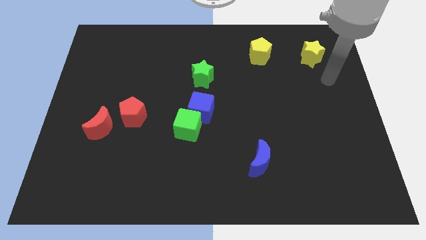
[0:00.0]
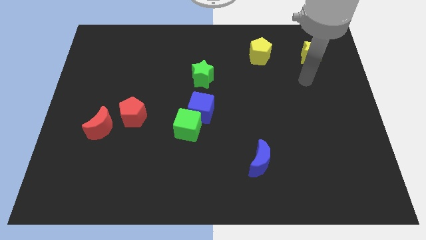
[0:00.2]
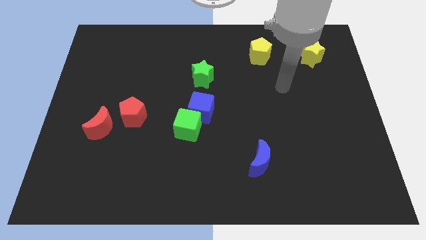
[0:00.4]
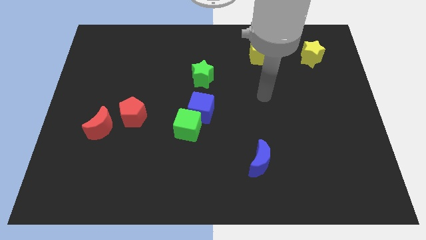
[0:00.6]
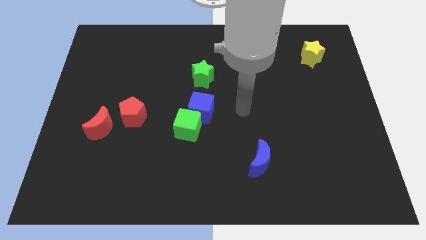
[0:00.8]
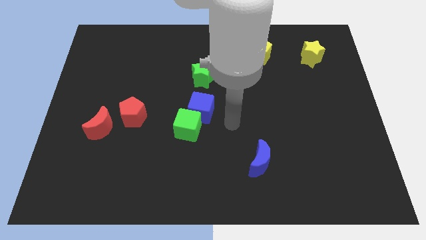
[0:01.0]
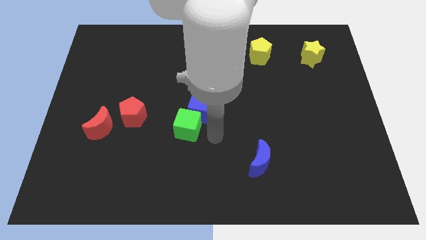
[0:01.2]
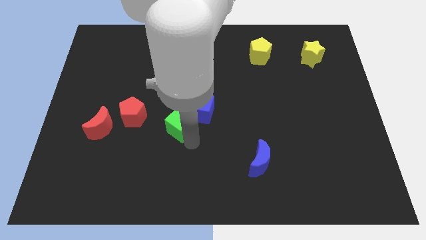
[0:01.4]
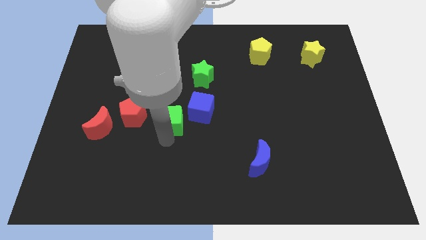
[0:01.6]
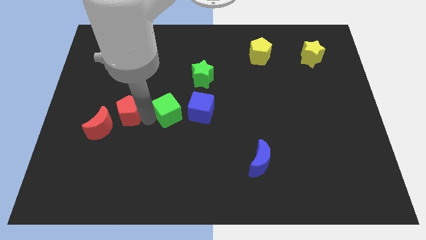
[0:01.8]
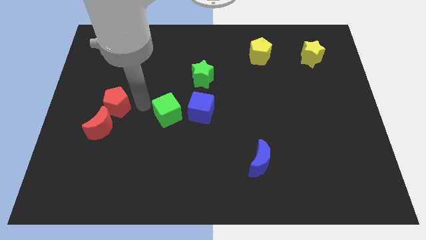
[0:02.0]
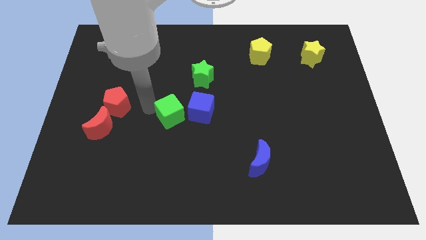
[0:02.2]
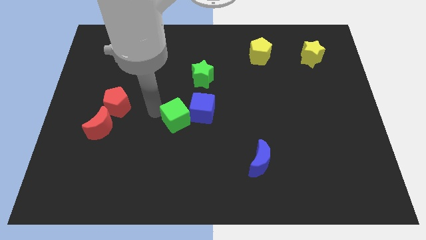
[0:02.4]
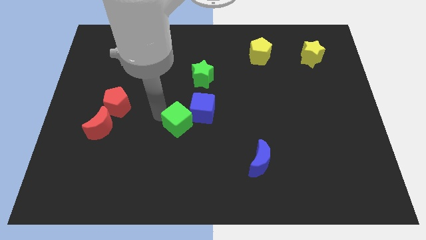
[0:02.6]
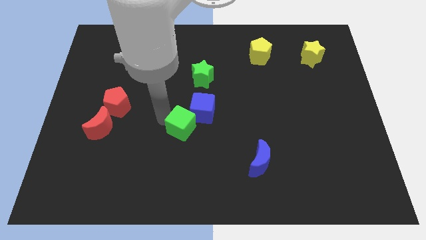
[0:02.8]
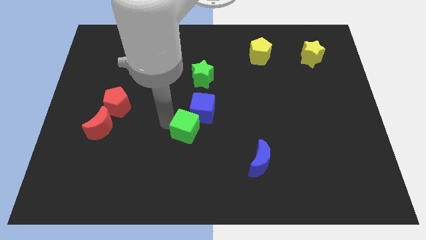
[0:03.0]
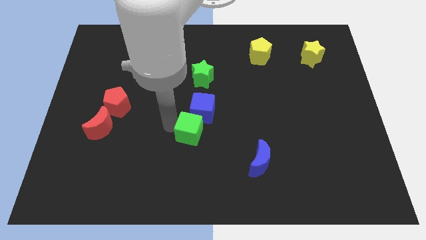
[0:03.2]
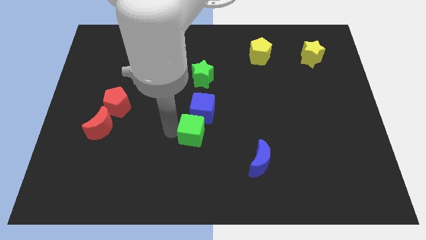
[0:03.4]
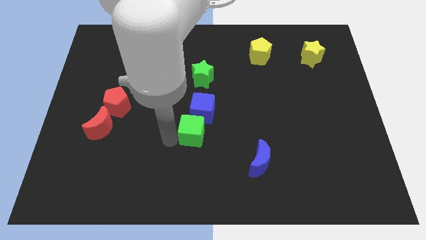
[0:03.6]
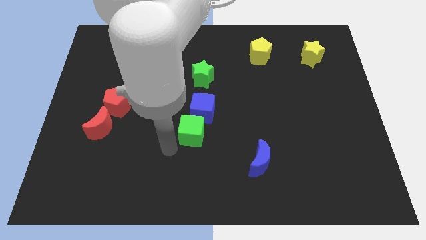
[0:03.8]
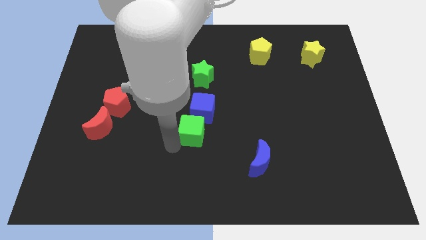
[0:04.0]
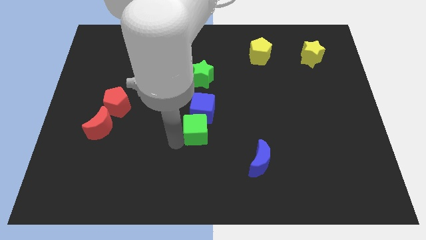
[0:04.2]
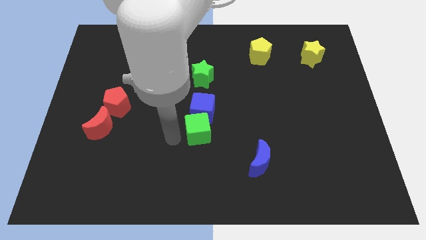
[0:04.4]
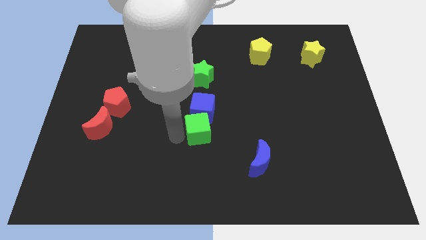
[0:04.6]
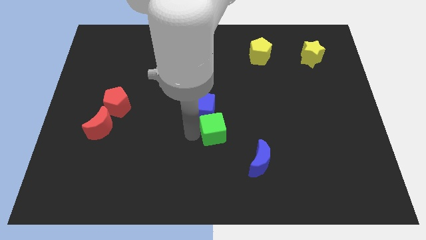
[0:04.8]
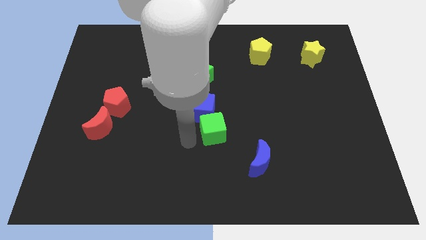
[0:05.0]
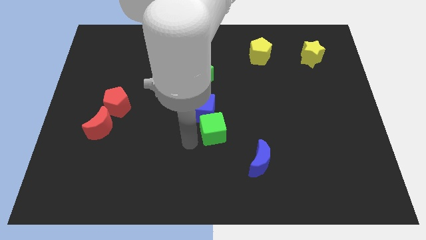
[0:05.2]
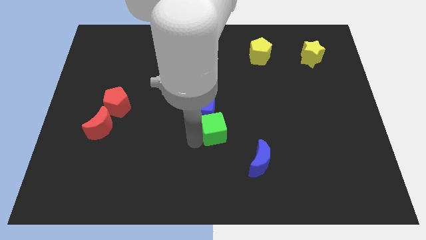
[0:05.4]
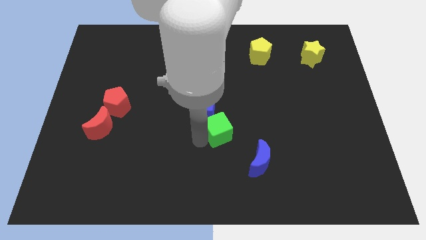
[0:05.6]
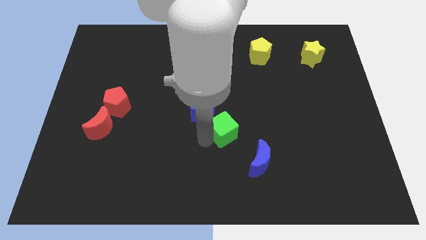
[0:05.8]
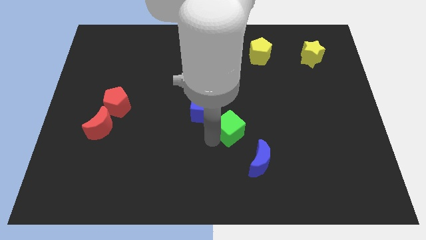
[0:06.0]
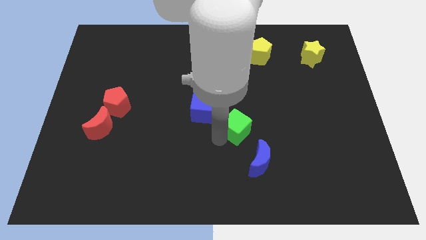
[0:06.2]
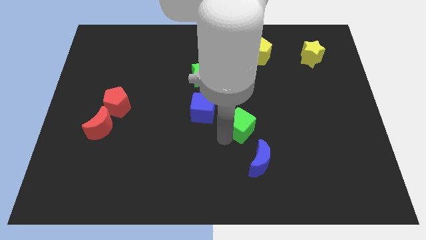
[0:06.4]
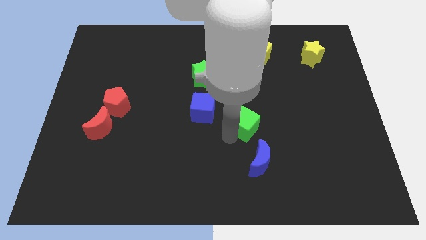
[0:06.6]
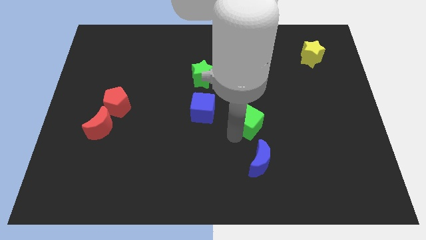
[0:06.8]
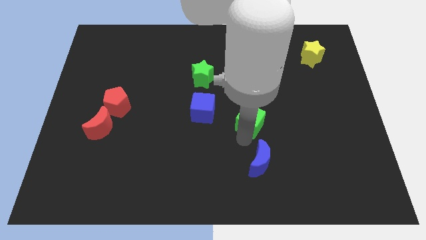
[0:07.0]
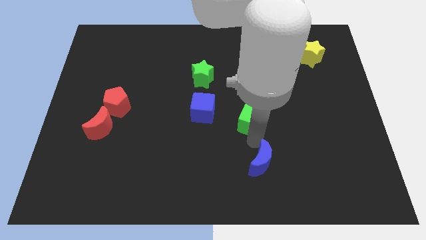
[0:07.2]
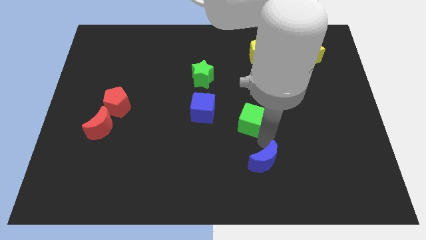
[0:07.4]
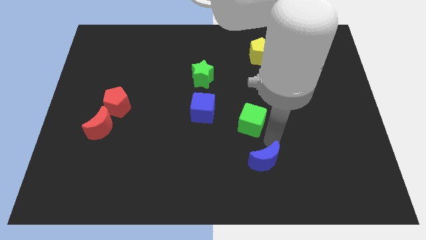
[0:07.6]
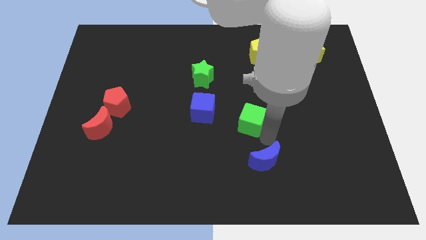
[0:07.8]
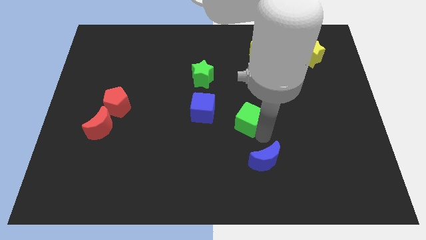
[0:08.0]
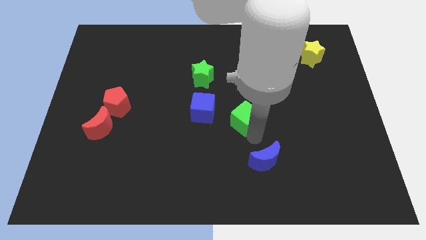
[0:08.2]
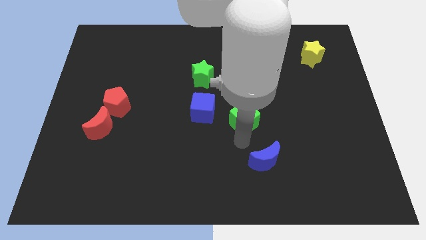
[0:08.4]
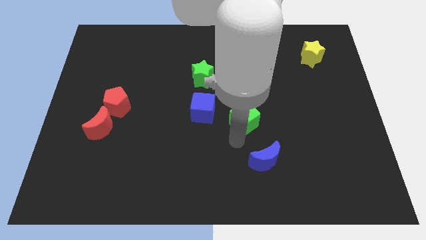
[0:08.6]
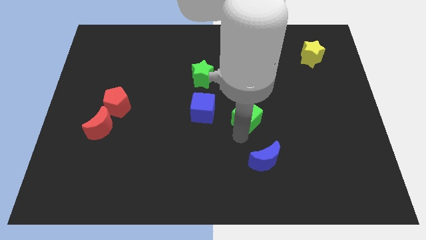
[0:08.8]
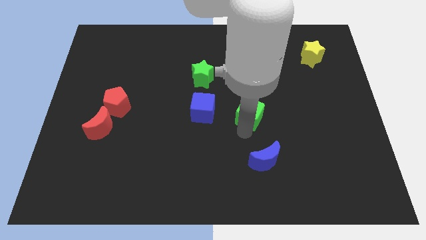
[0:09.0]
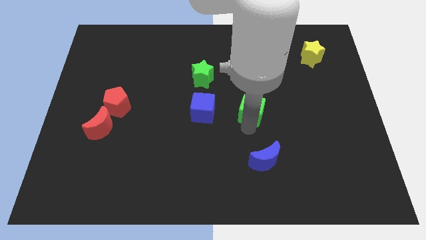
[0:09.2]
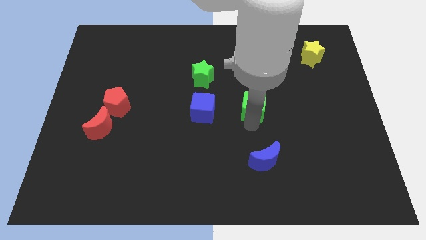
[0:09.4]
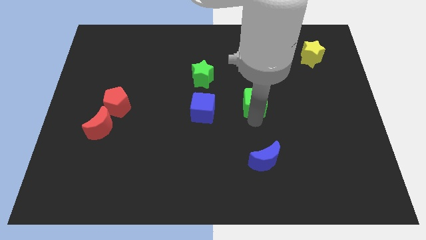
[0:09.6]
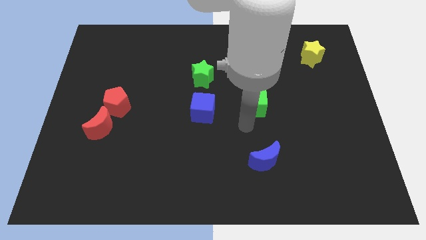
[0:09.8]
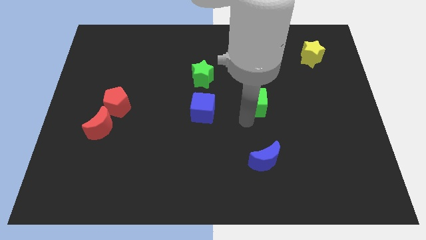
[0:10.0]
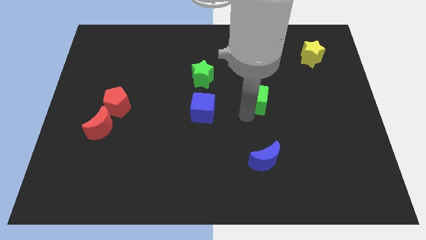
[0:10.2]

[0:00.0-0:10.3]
put the green cube to the bottom side of the yellow pentagon

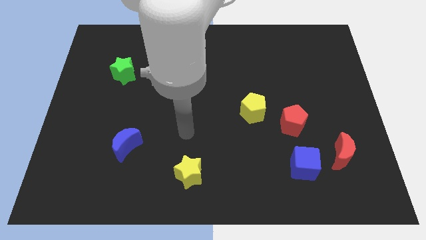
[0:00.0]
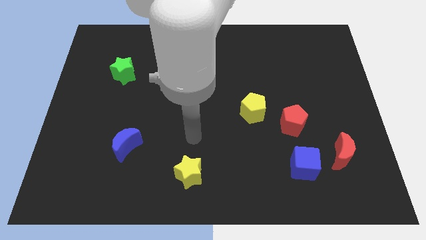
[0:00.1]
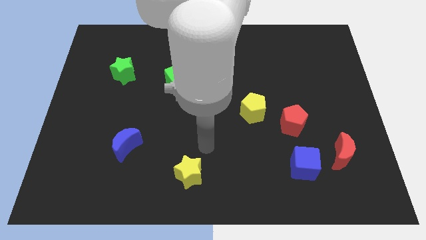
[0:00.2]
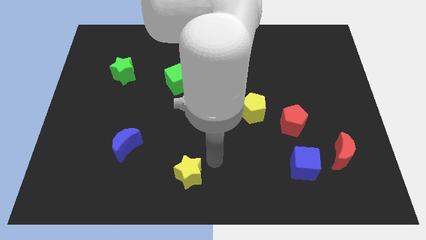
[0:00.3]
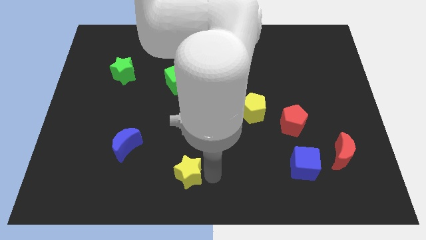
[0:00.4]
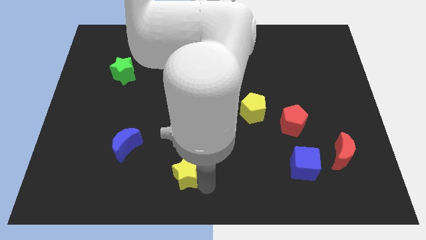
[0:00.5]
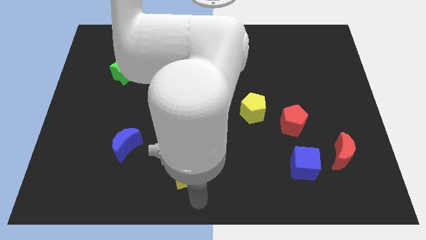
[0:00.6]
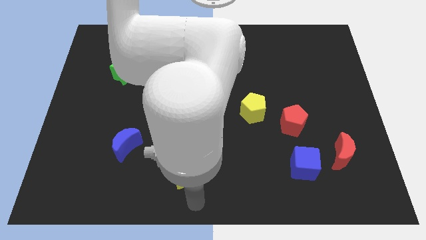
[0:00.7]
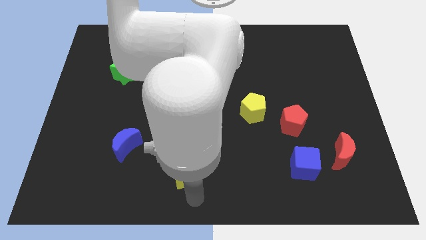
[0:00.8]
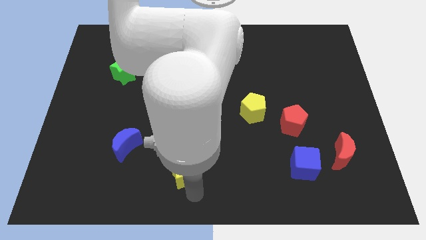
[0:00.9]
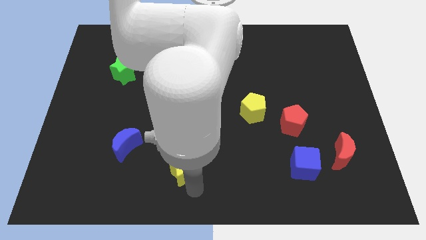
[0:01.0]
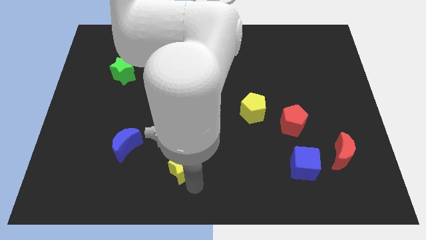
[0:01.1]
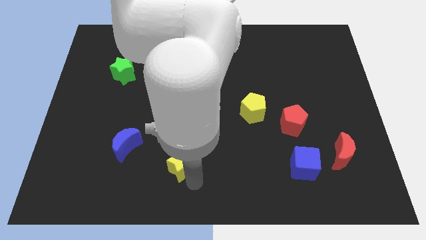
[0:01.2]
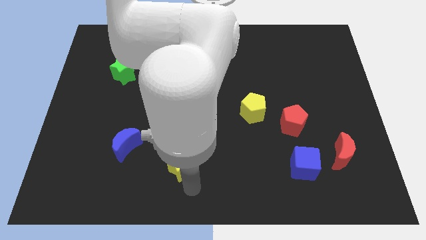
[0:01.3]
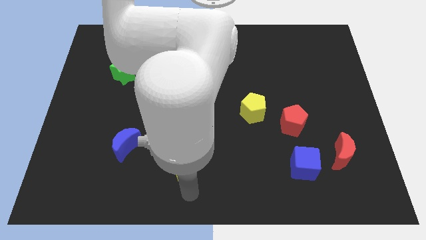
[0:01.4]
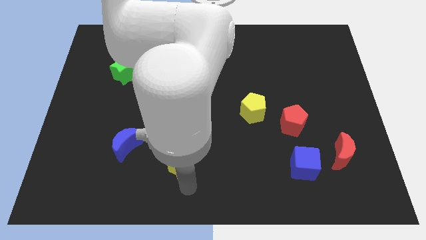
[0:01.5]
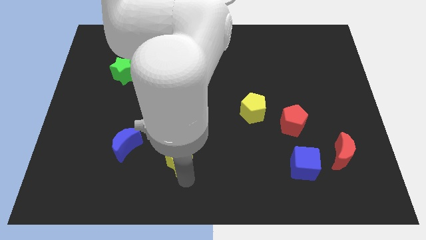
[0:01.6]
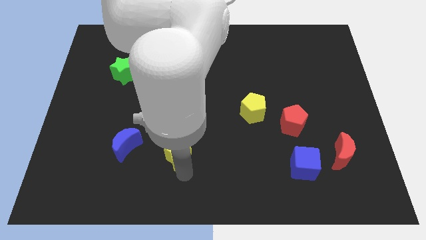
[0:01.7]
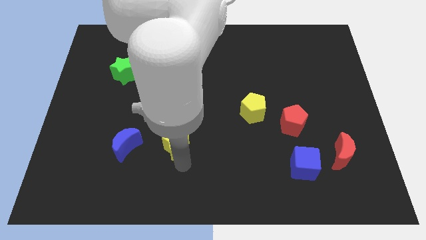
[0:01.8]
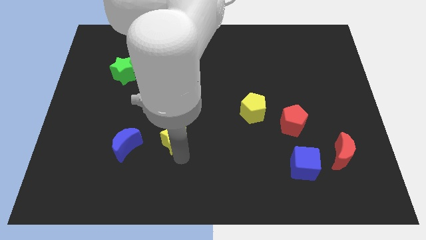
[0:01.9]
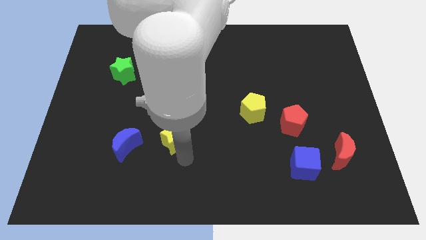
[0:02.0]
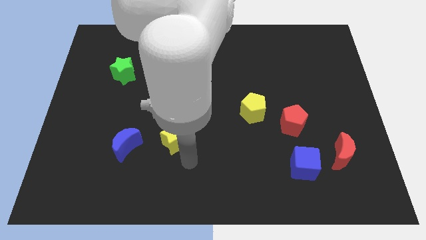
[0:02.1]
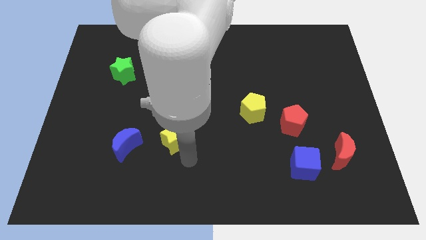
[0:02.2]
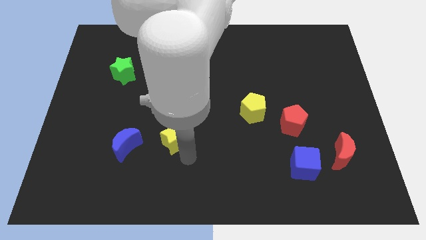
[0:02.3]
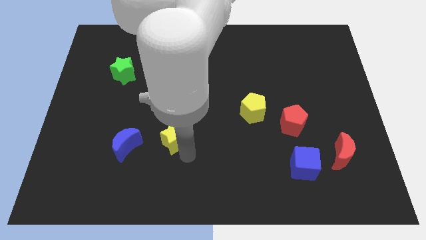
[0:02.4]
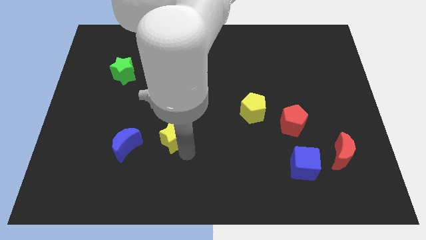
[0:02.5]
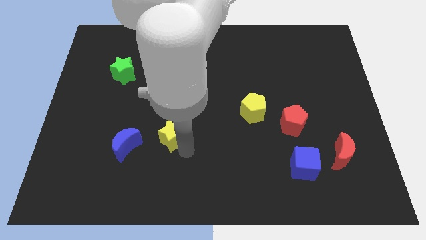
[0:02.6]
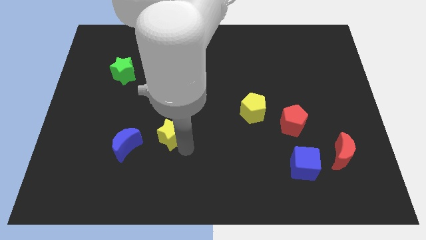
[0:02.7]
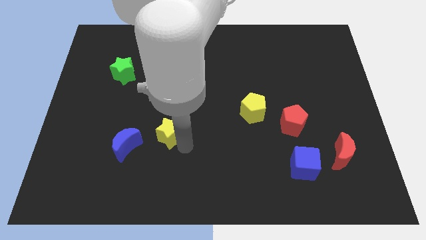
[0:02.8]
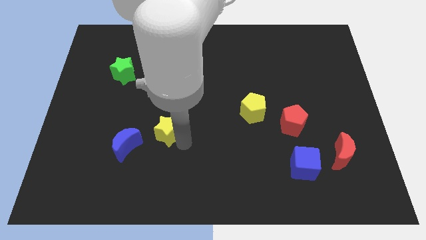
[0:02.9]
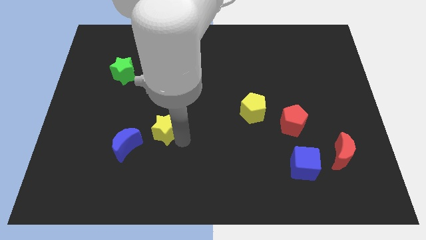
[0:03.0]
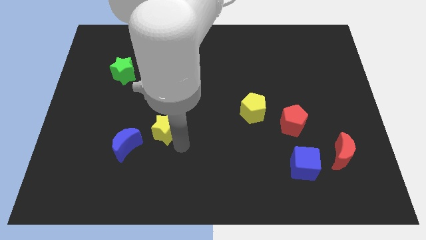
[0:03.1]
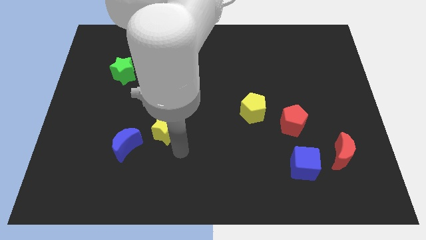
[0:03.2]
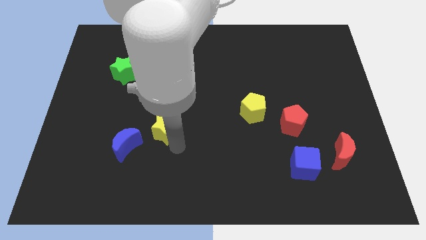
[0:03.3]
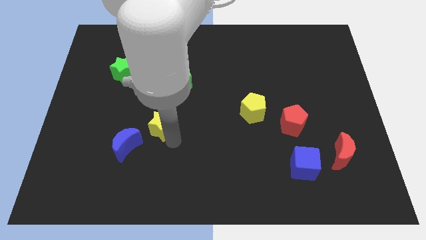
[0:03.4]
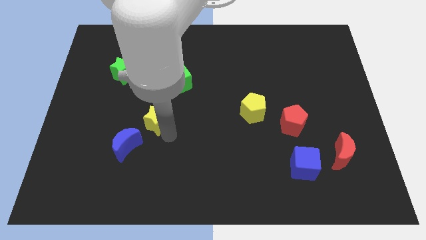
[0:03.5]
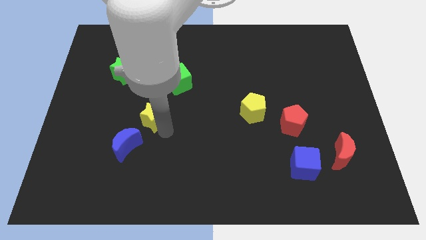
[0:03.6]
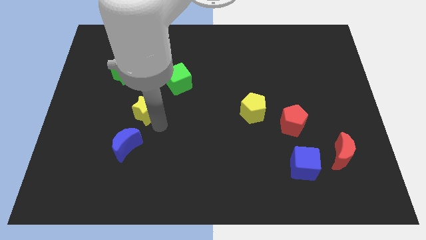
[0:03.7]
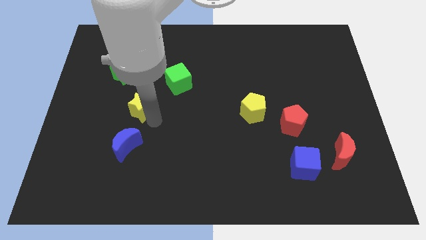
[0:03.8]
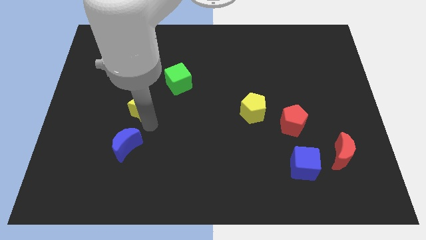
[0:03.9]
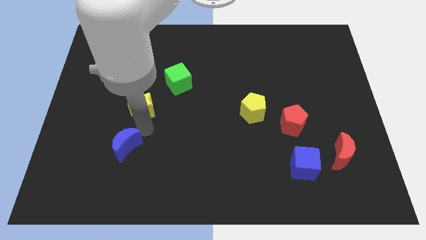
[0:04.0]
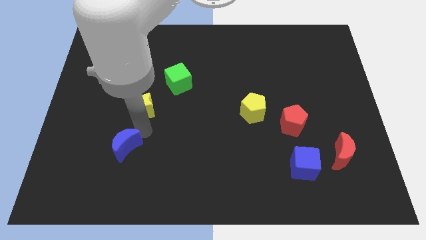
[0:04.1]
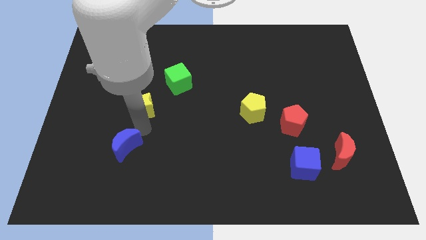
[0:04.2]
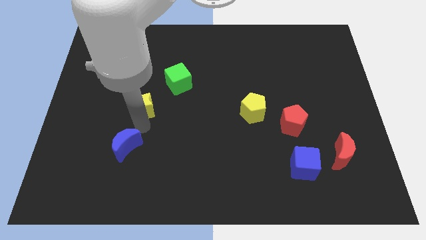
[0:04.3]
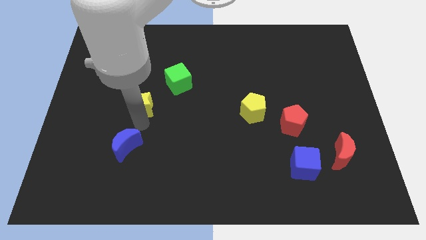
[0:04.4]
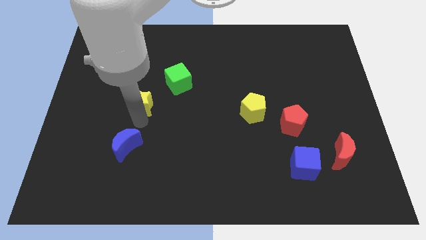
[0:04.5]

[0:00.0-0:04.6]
push the yellow star diagonally down and to the right of the green star
